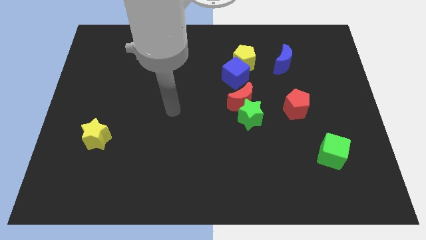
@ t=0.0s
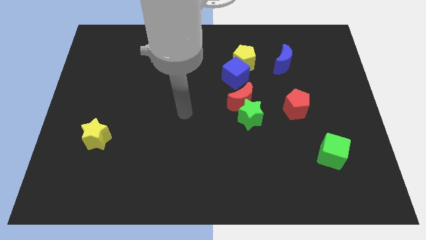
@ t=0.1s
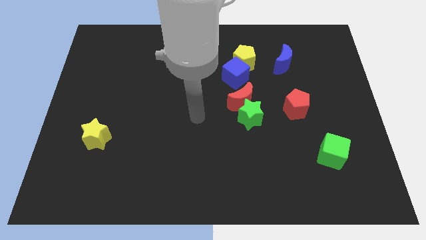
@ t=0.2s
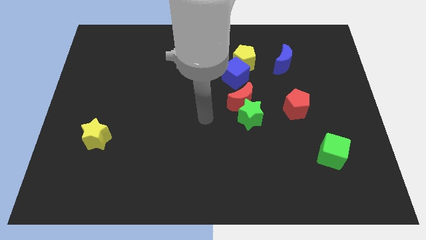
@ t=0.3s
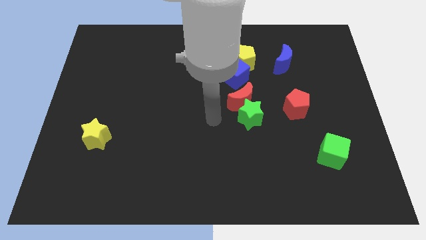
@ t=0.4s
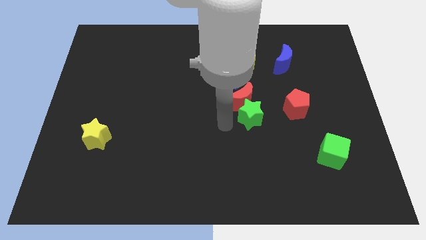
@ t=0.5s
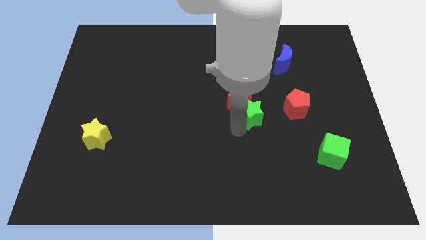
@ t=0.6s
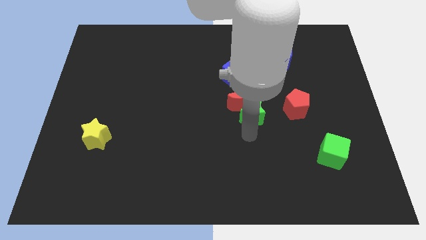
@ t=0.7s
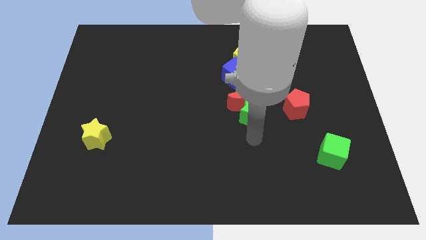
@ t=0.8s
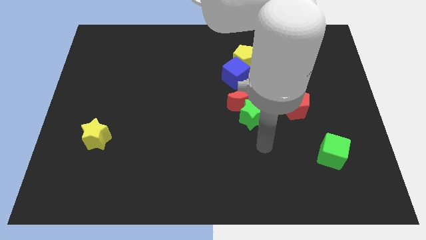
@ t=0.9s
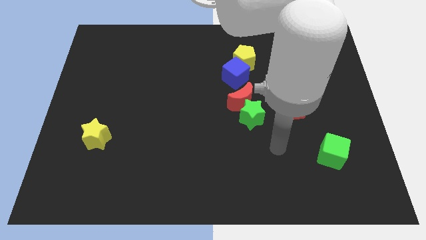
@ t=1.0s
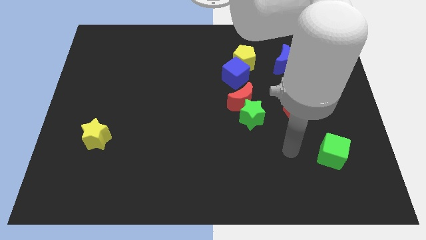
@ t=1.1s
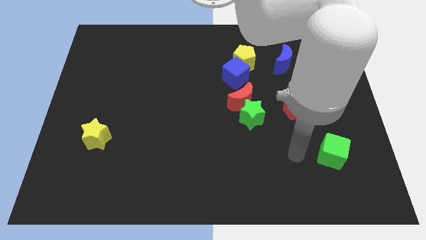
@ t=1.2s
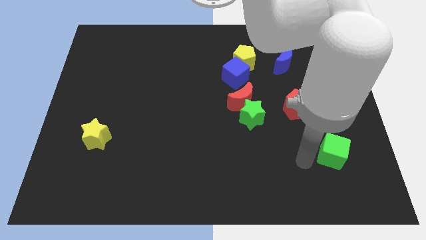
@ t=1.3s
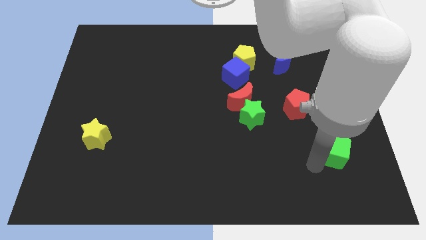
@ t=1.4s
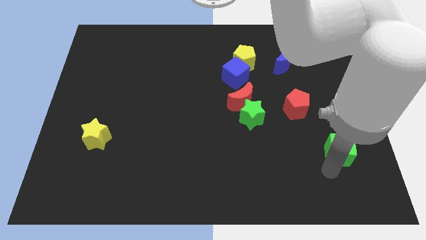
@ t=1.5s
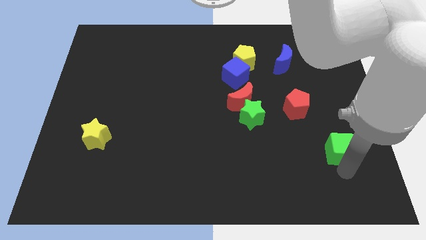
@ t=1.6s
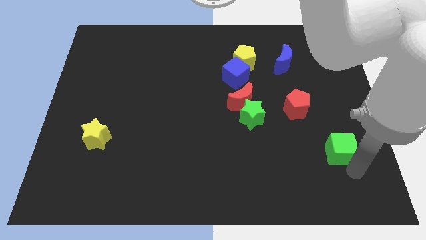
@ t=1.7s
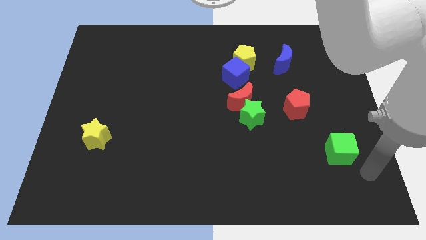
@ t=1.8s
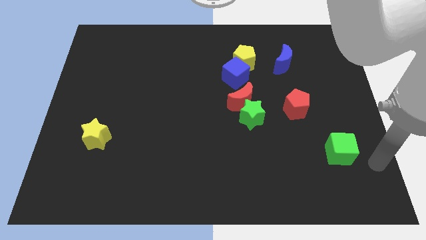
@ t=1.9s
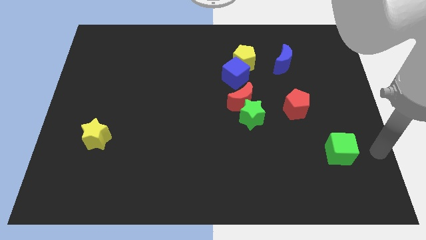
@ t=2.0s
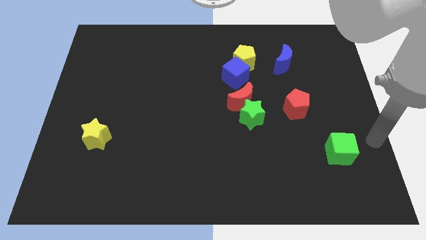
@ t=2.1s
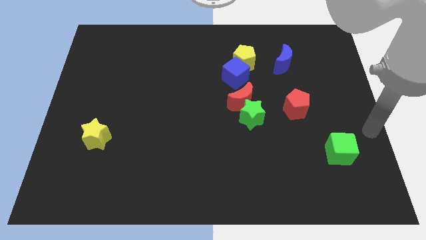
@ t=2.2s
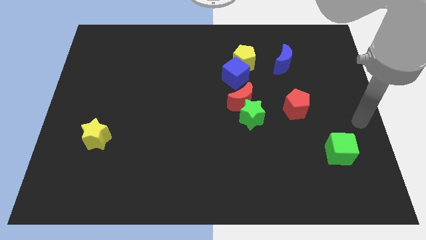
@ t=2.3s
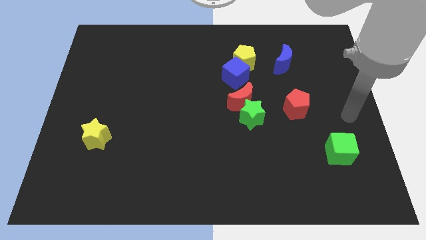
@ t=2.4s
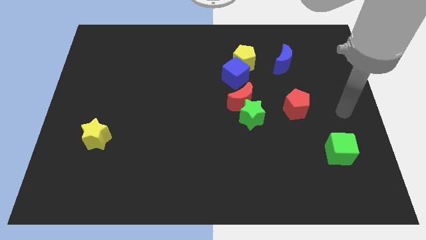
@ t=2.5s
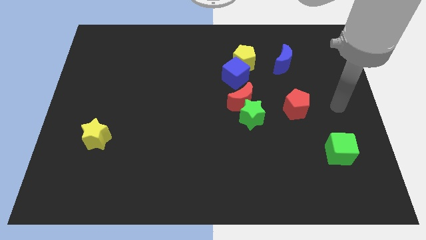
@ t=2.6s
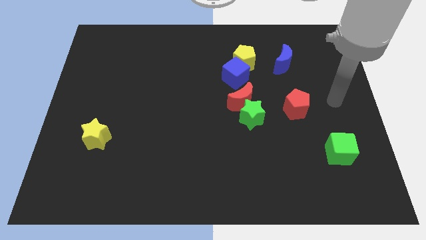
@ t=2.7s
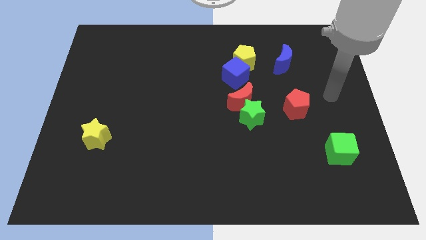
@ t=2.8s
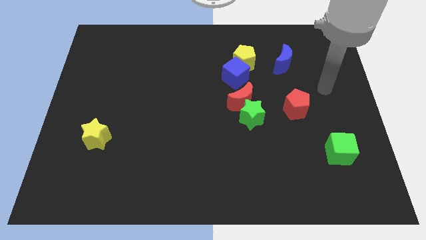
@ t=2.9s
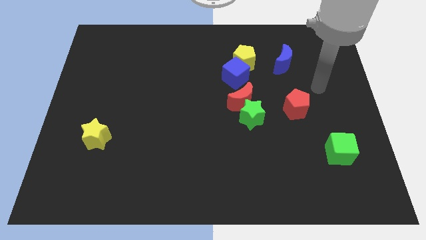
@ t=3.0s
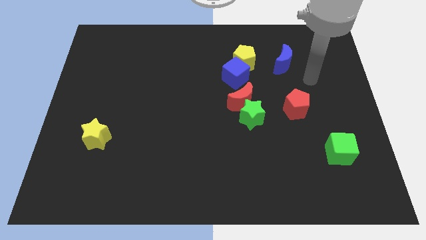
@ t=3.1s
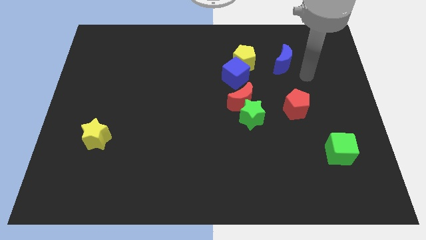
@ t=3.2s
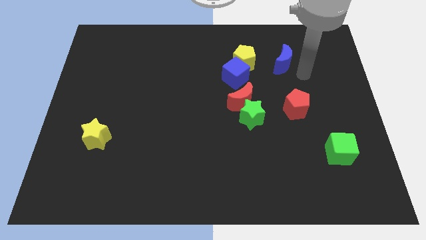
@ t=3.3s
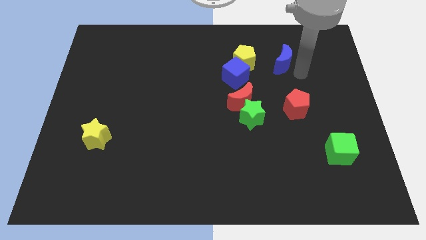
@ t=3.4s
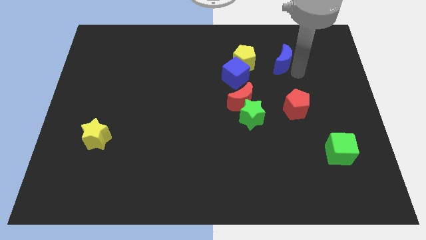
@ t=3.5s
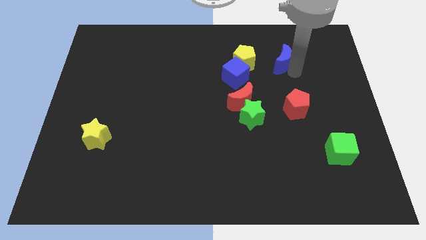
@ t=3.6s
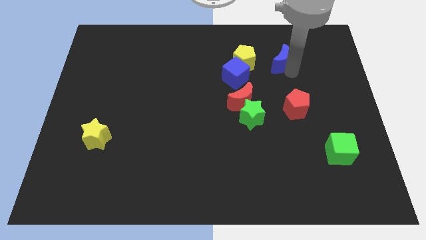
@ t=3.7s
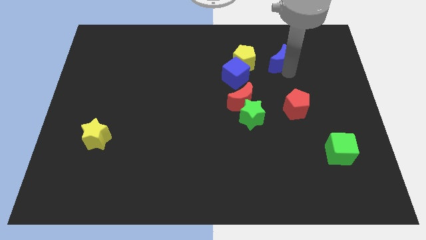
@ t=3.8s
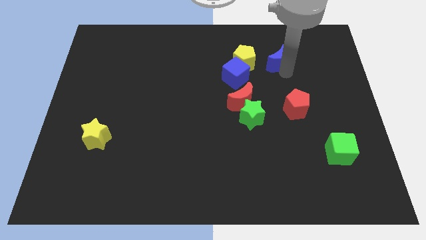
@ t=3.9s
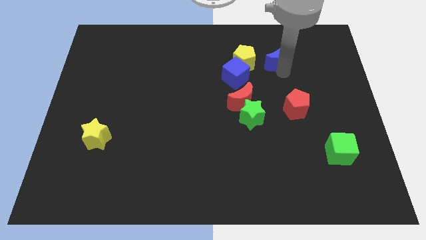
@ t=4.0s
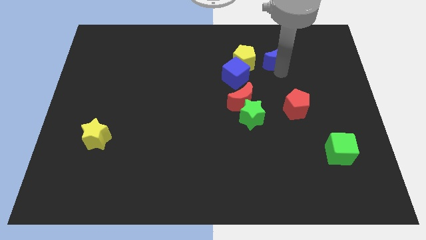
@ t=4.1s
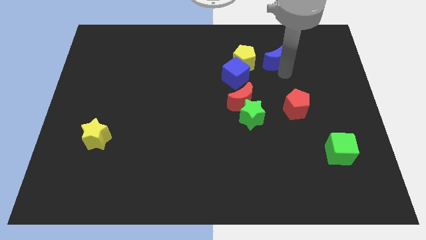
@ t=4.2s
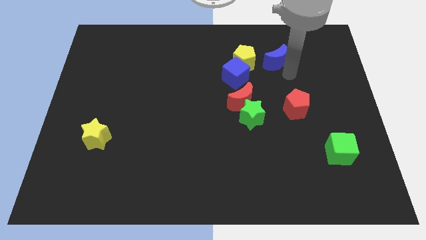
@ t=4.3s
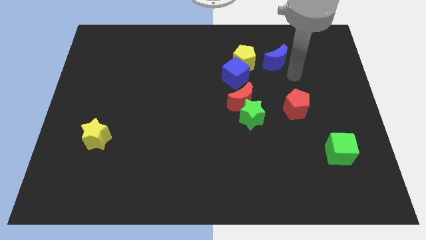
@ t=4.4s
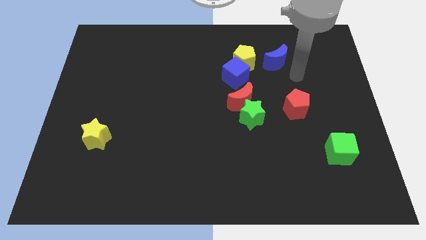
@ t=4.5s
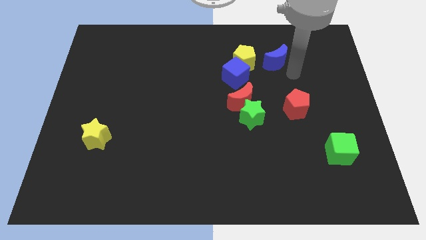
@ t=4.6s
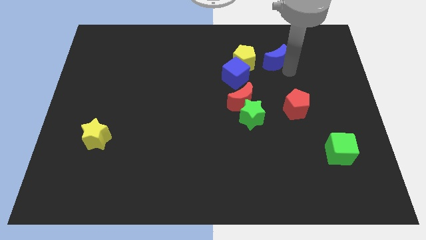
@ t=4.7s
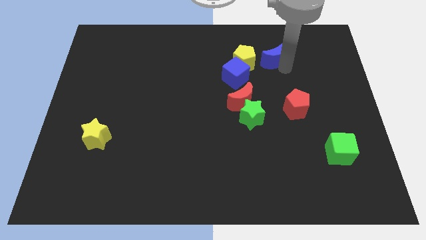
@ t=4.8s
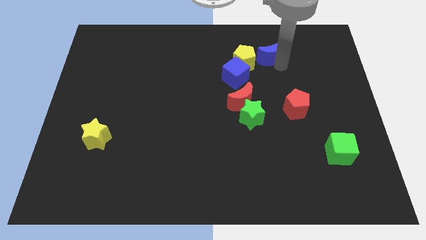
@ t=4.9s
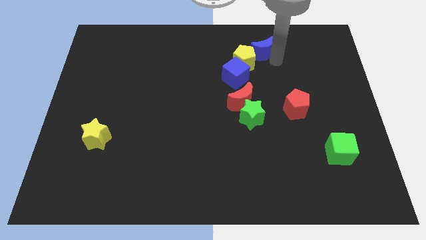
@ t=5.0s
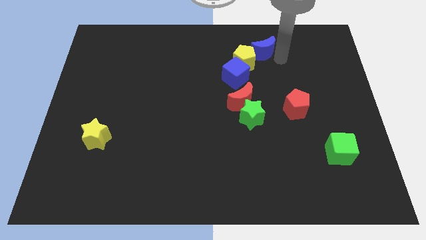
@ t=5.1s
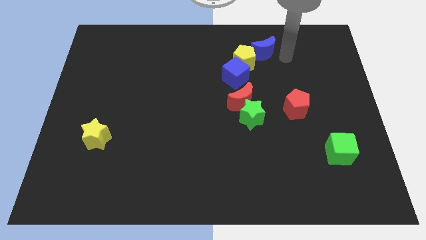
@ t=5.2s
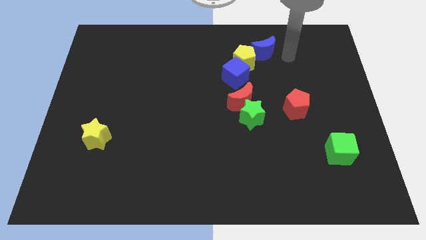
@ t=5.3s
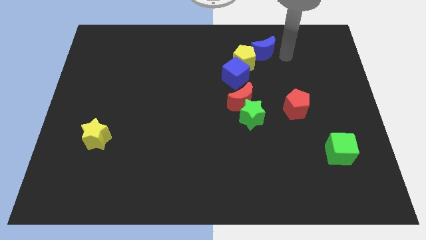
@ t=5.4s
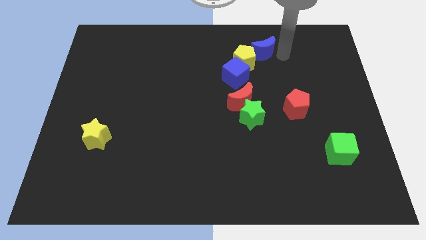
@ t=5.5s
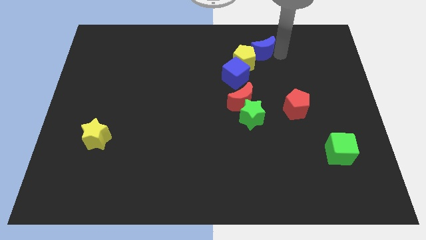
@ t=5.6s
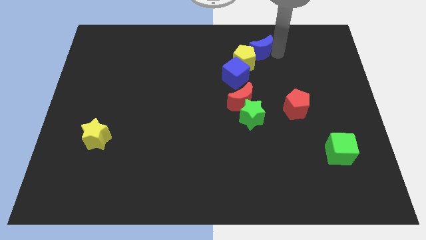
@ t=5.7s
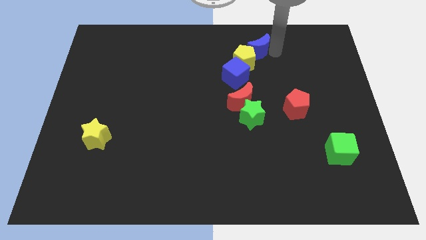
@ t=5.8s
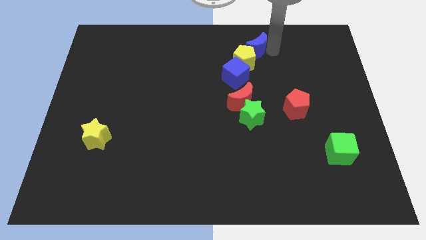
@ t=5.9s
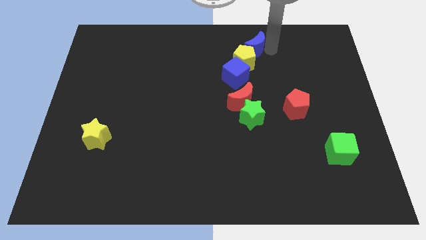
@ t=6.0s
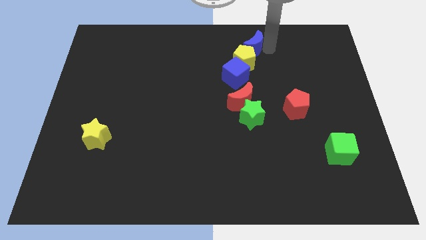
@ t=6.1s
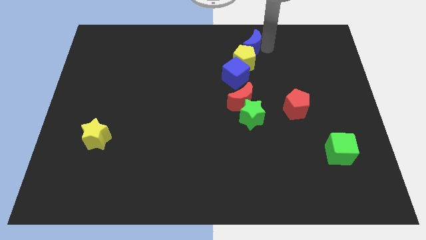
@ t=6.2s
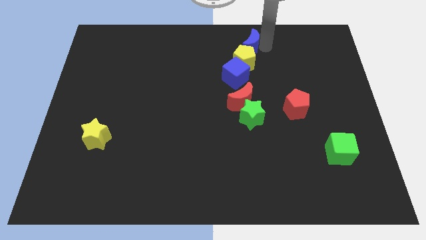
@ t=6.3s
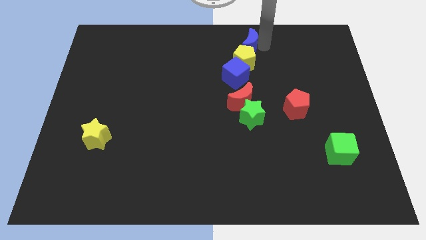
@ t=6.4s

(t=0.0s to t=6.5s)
put the blue moon to the top side
